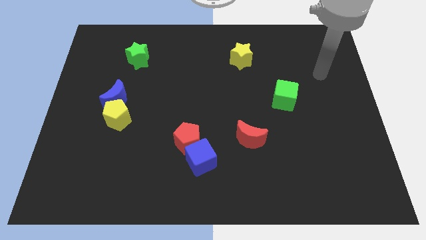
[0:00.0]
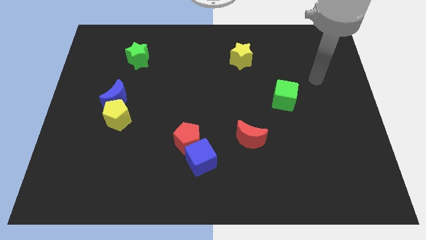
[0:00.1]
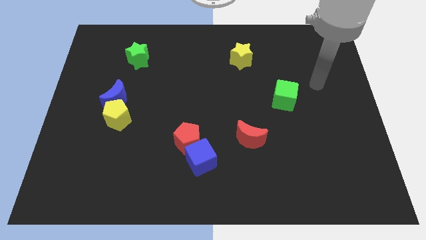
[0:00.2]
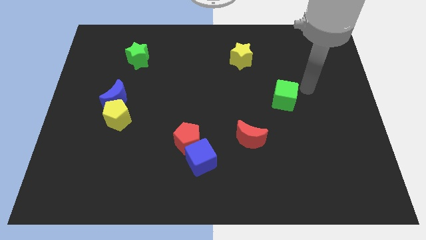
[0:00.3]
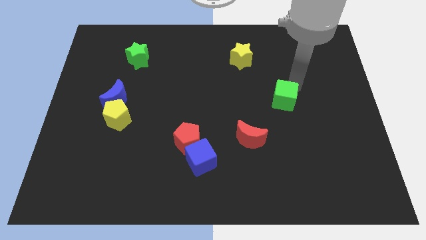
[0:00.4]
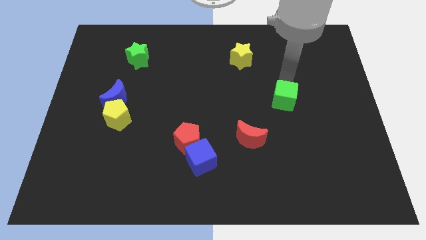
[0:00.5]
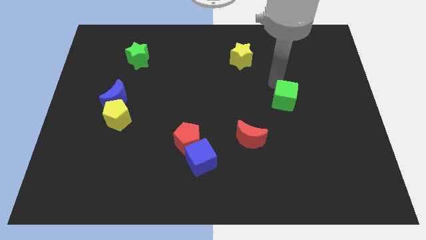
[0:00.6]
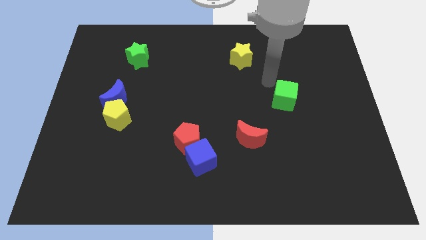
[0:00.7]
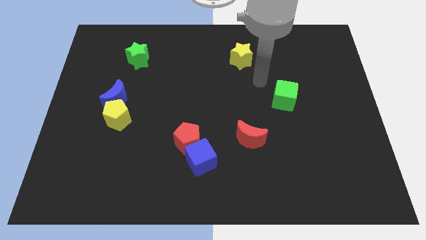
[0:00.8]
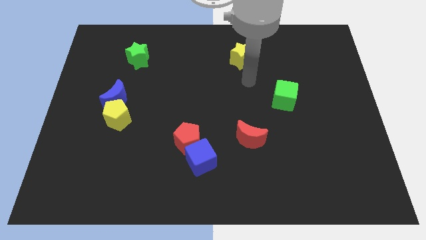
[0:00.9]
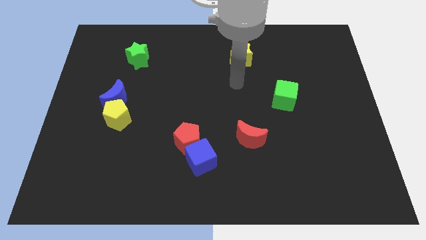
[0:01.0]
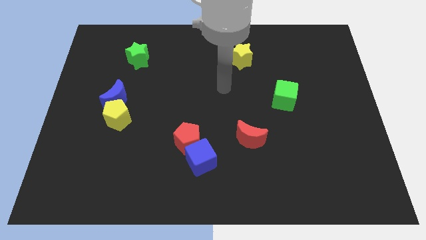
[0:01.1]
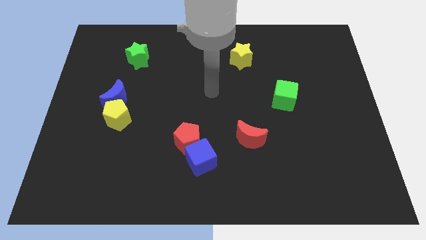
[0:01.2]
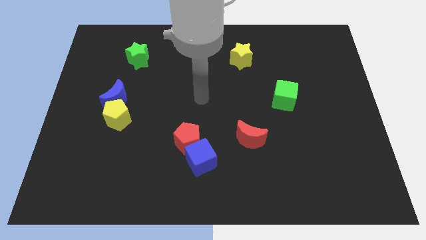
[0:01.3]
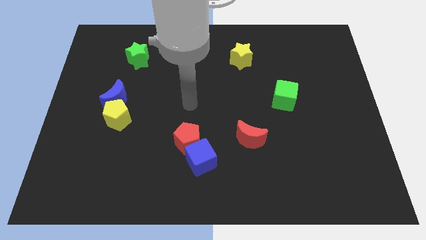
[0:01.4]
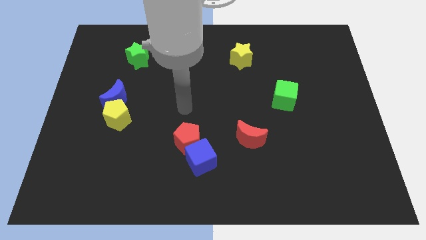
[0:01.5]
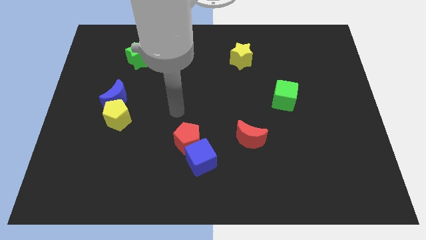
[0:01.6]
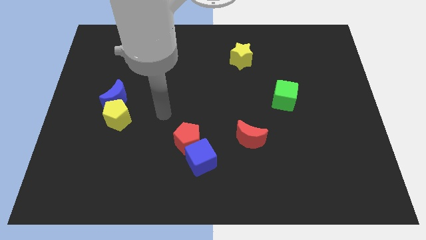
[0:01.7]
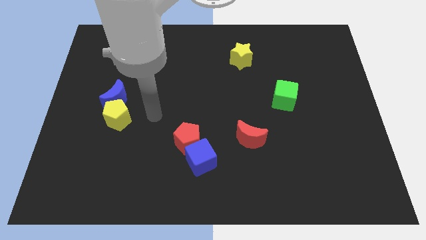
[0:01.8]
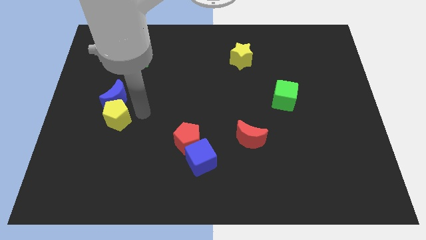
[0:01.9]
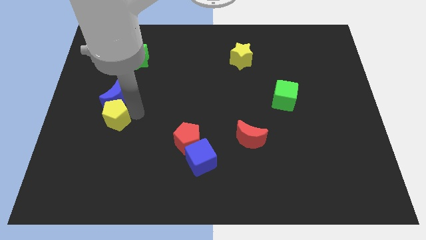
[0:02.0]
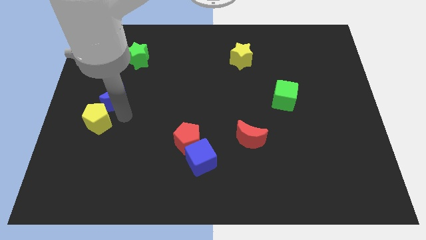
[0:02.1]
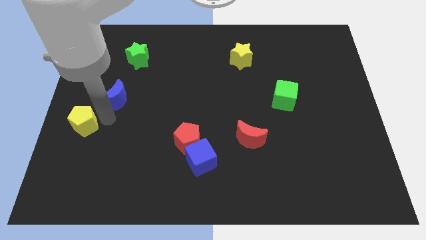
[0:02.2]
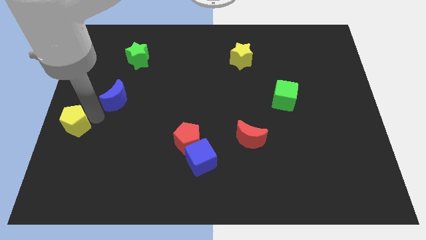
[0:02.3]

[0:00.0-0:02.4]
separate the blue moon from the yellow pentagon

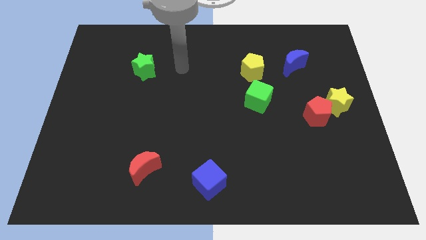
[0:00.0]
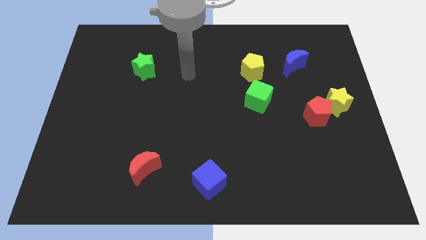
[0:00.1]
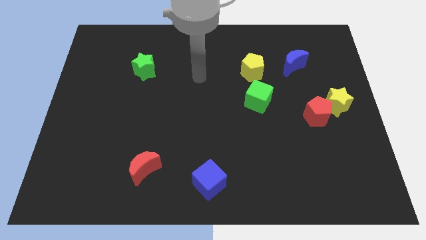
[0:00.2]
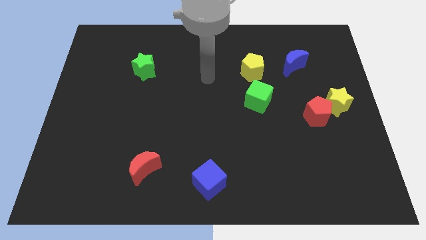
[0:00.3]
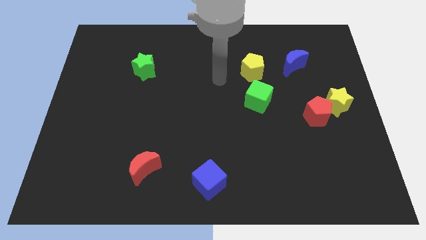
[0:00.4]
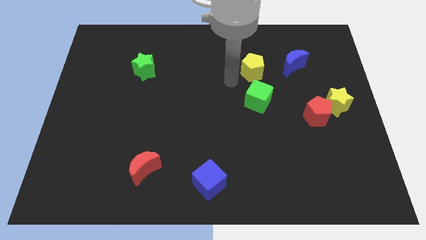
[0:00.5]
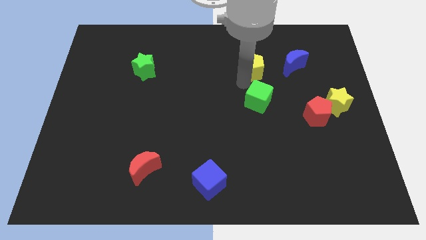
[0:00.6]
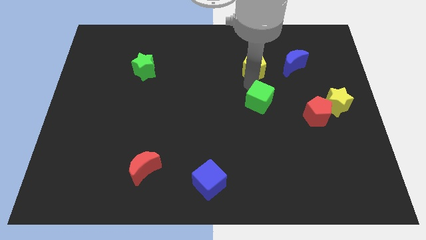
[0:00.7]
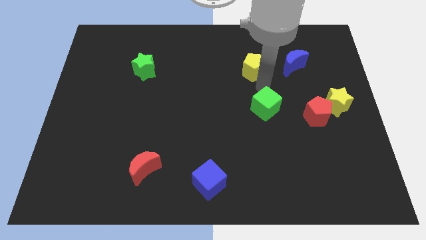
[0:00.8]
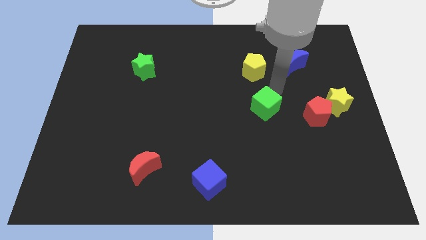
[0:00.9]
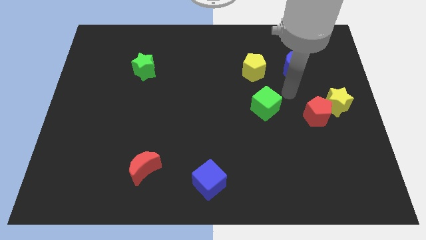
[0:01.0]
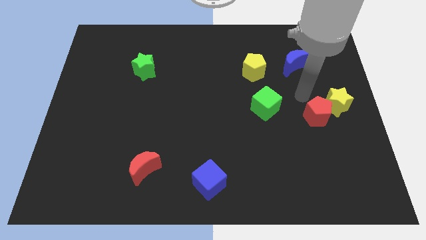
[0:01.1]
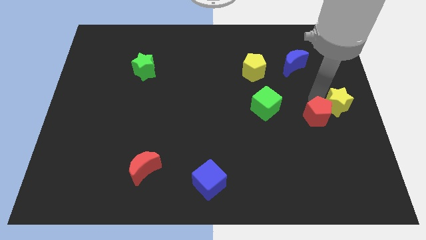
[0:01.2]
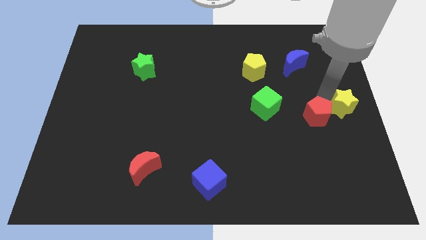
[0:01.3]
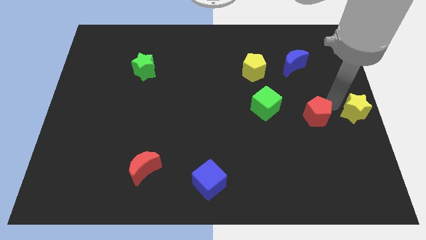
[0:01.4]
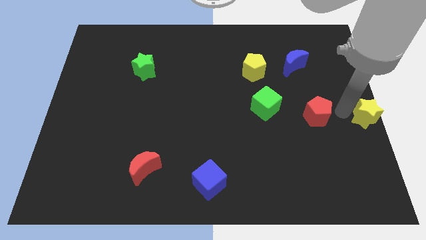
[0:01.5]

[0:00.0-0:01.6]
pull the red pentagon apart from the yellow star

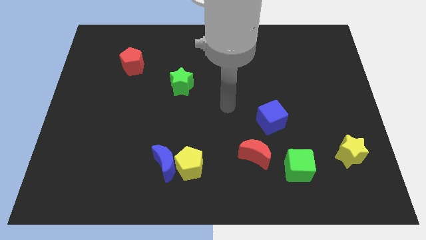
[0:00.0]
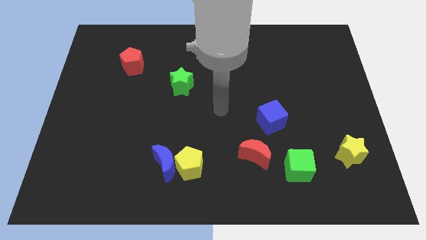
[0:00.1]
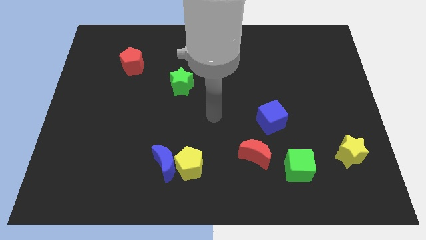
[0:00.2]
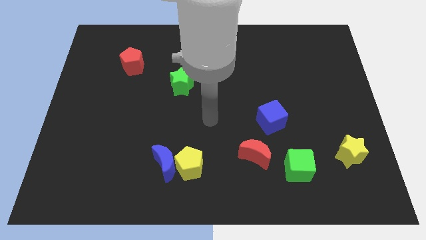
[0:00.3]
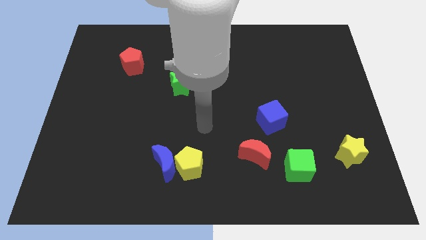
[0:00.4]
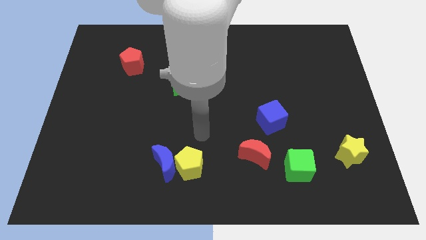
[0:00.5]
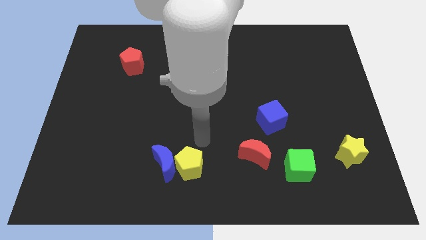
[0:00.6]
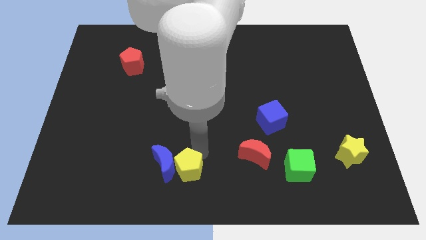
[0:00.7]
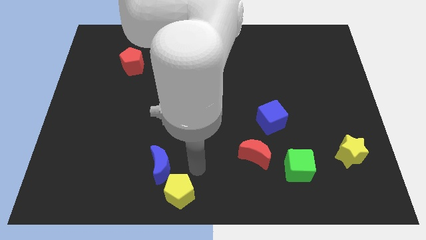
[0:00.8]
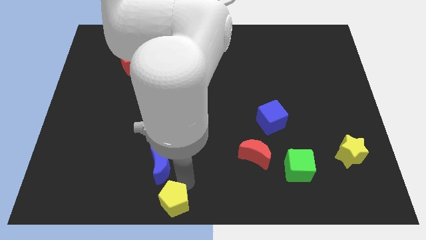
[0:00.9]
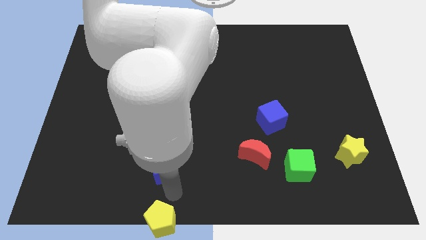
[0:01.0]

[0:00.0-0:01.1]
move the blue moon away from the yellow pentagon

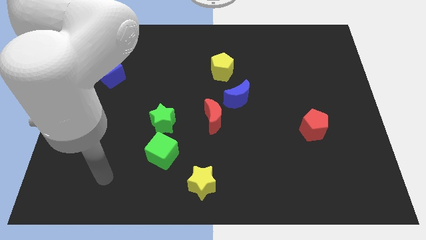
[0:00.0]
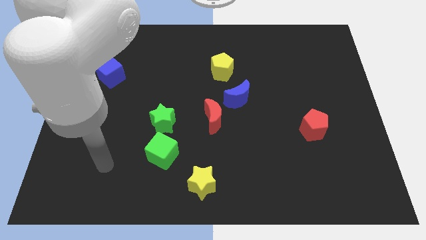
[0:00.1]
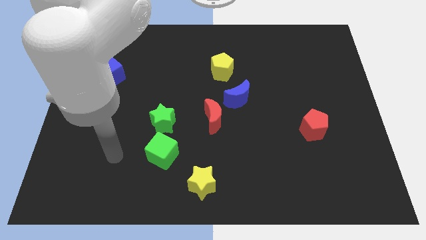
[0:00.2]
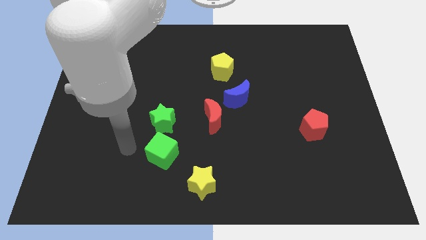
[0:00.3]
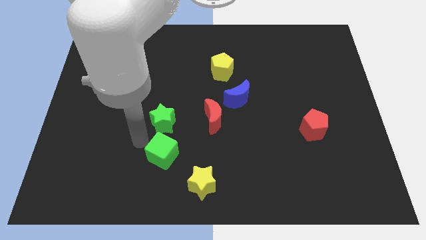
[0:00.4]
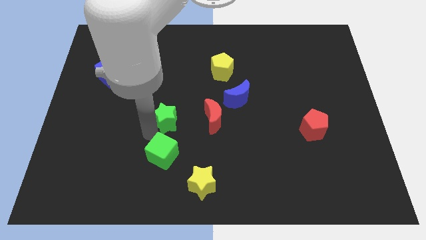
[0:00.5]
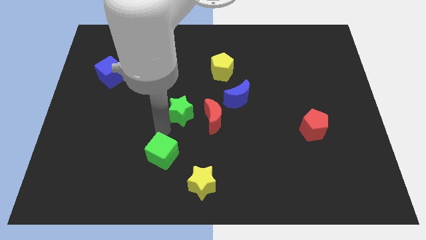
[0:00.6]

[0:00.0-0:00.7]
separate the green cube from the green star

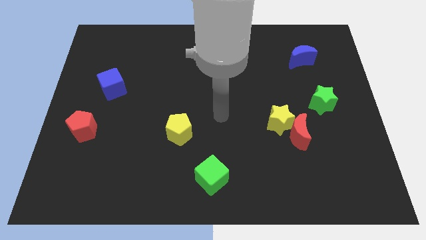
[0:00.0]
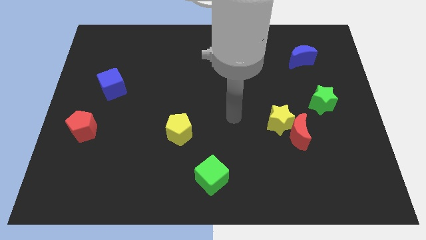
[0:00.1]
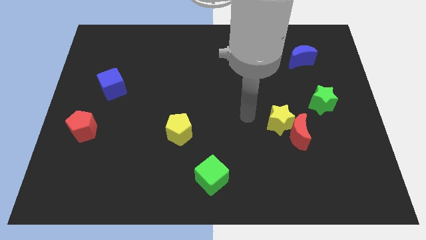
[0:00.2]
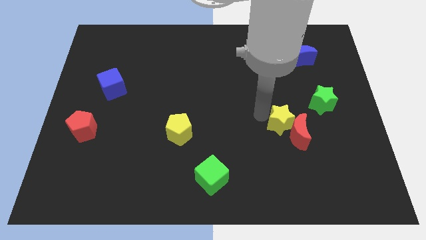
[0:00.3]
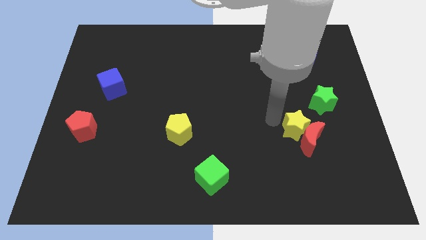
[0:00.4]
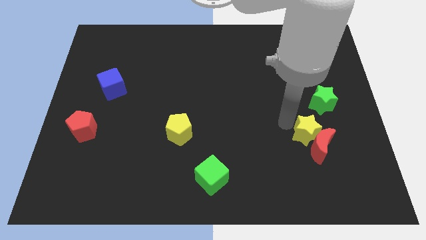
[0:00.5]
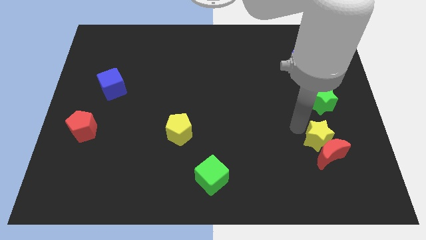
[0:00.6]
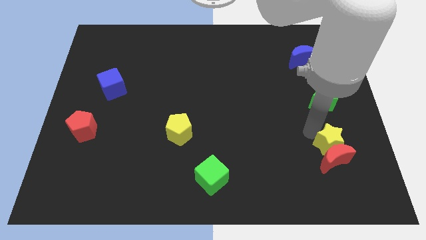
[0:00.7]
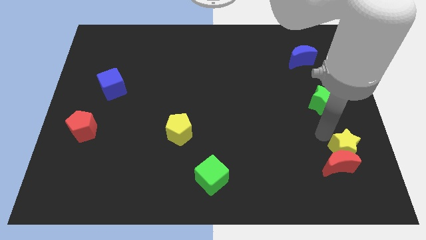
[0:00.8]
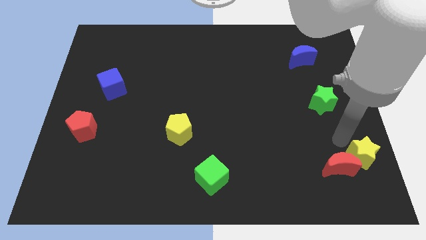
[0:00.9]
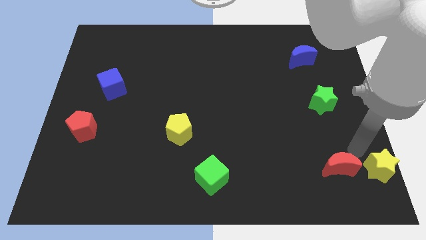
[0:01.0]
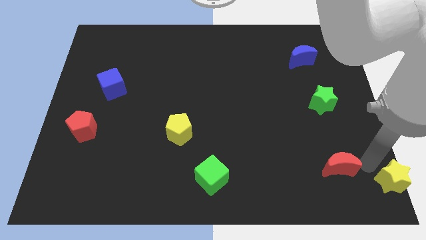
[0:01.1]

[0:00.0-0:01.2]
pull the red moon apart from the yellow star

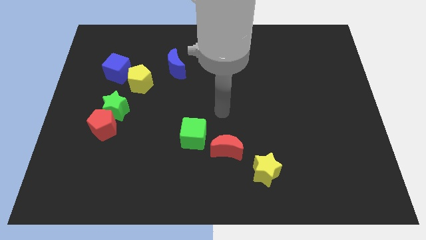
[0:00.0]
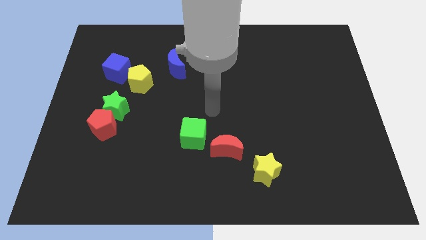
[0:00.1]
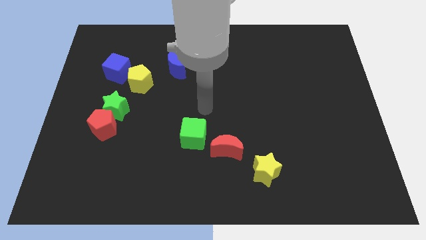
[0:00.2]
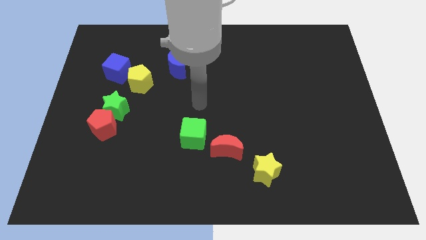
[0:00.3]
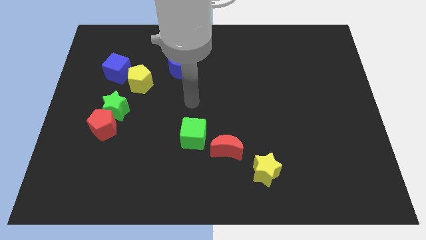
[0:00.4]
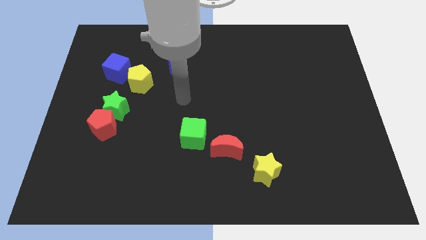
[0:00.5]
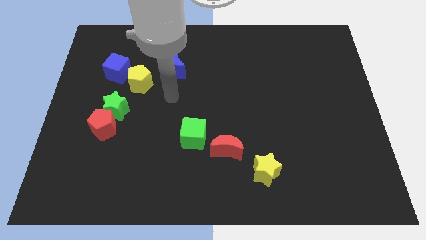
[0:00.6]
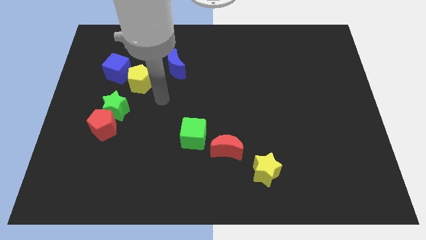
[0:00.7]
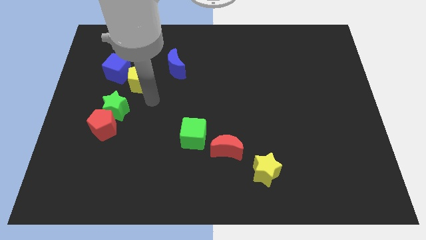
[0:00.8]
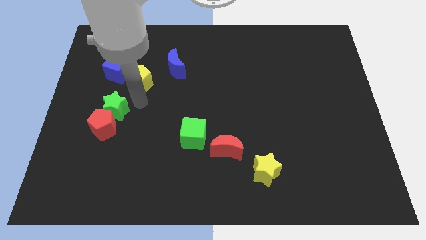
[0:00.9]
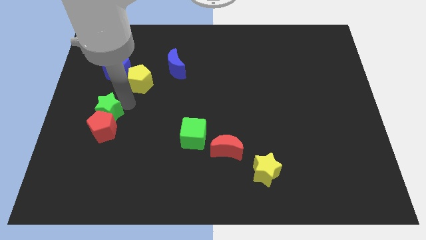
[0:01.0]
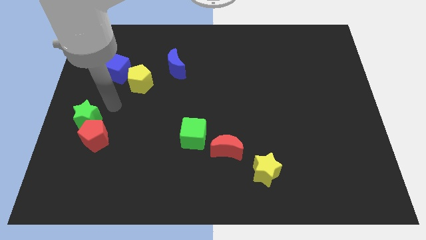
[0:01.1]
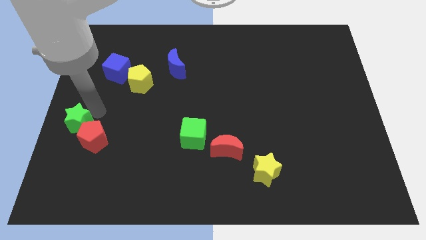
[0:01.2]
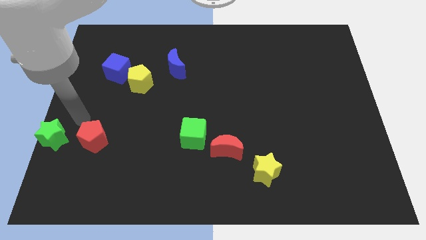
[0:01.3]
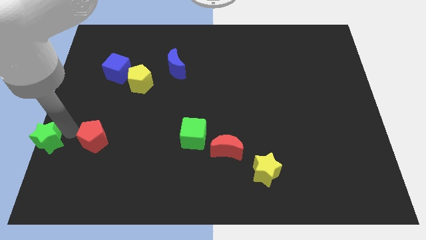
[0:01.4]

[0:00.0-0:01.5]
separate the red pentagon from the green star

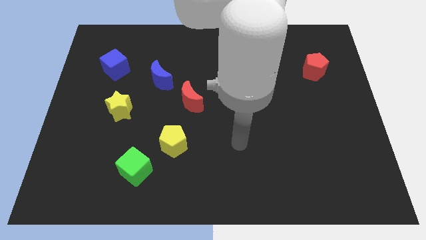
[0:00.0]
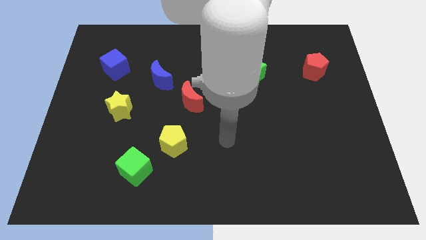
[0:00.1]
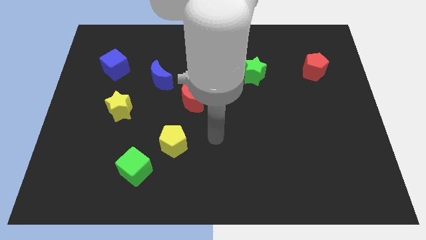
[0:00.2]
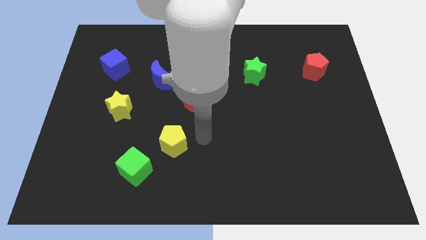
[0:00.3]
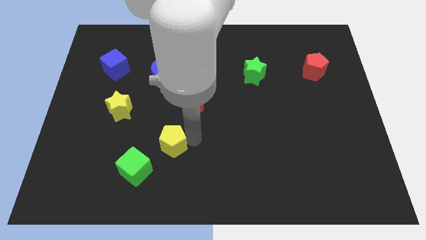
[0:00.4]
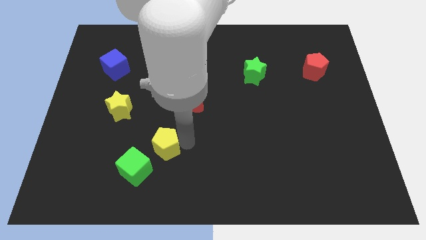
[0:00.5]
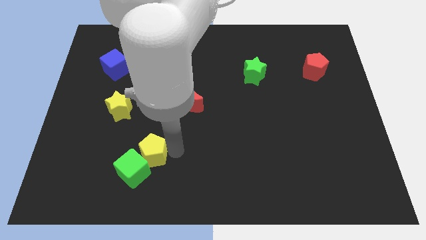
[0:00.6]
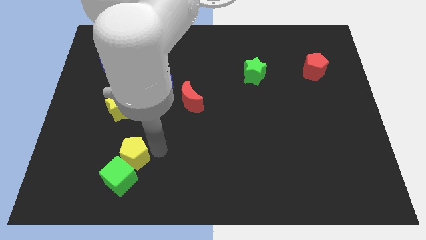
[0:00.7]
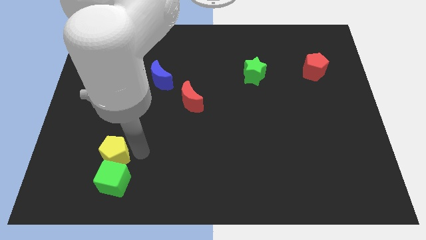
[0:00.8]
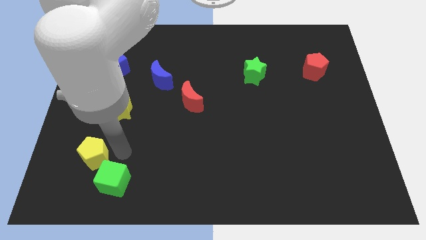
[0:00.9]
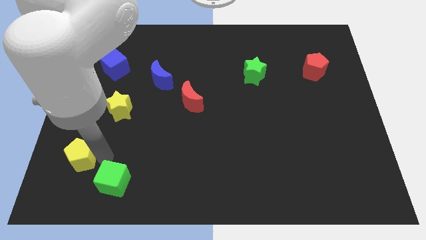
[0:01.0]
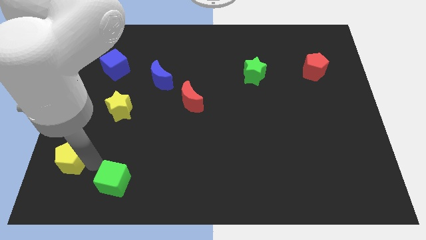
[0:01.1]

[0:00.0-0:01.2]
move the green cube away from the yellow pentagon
